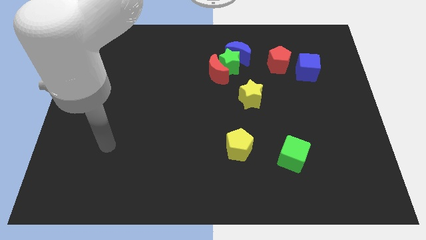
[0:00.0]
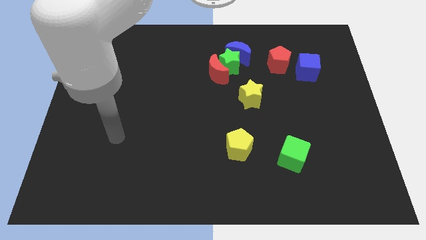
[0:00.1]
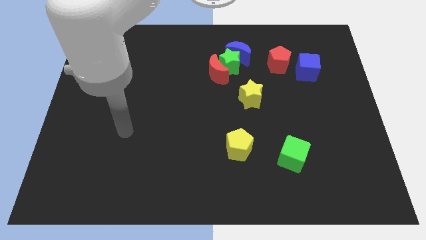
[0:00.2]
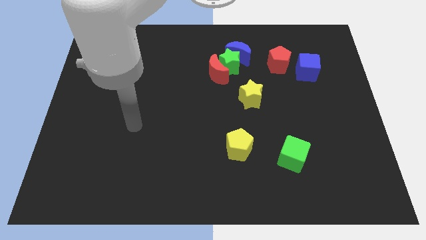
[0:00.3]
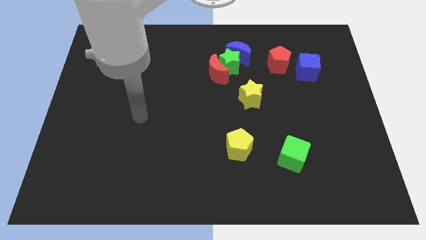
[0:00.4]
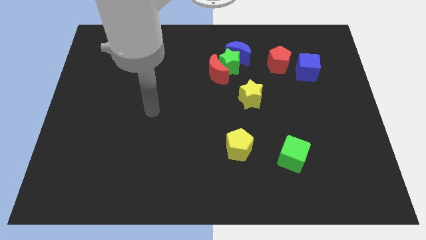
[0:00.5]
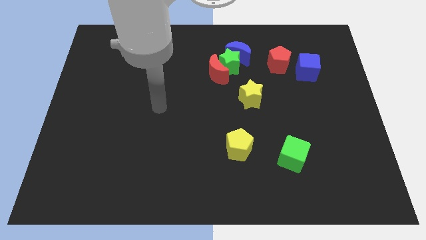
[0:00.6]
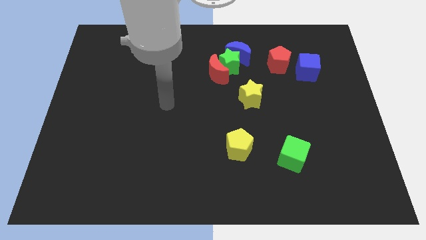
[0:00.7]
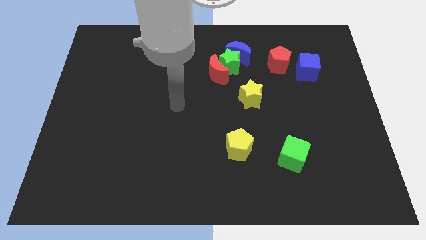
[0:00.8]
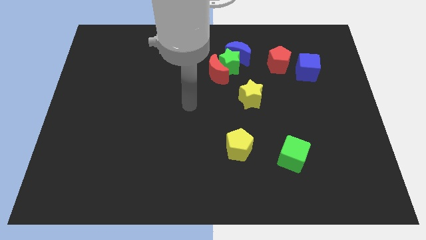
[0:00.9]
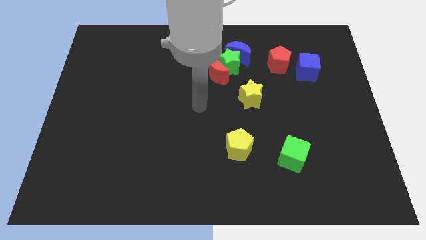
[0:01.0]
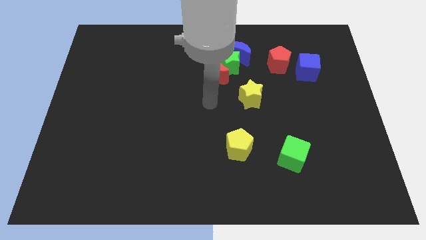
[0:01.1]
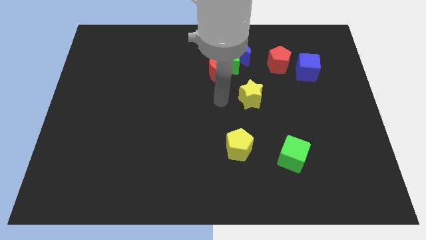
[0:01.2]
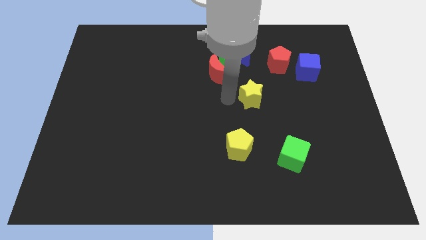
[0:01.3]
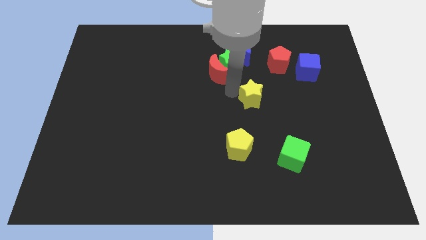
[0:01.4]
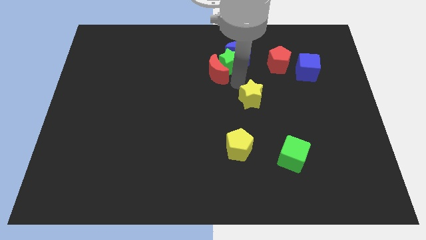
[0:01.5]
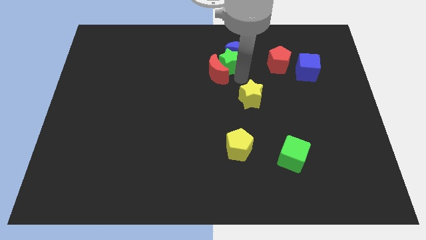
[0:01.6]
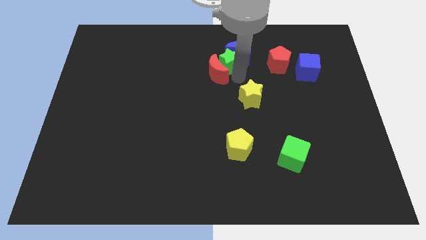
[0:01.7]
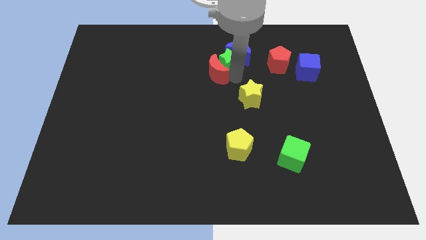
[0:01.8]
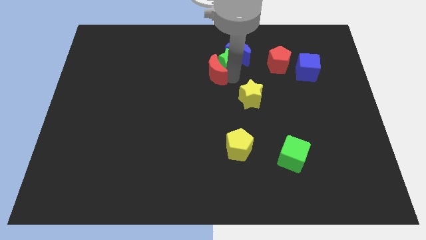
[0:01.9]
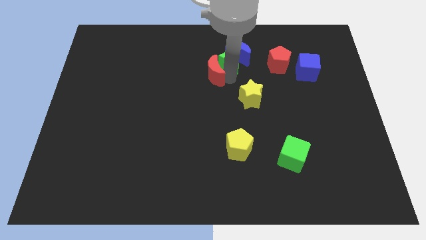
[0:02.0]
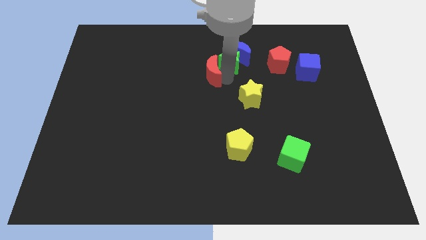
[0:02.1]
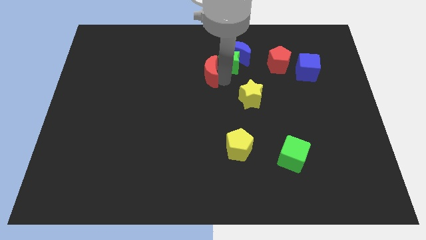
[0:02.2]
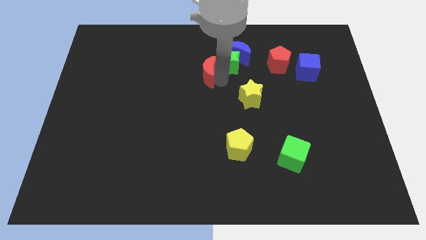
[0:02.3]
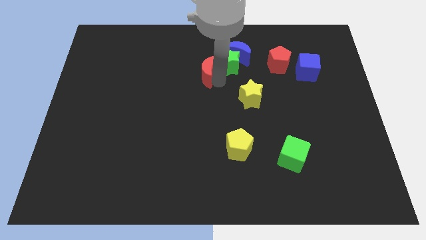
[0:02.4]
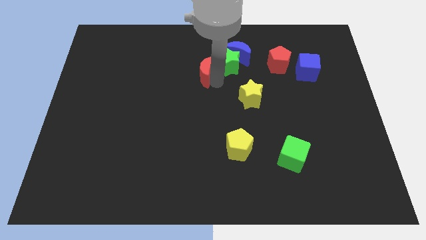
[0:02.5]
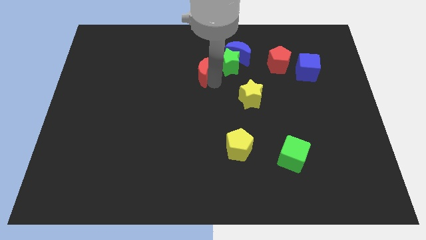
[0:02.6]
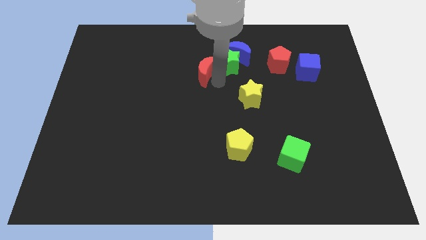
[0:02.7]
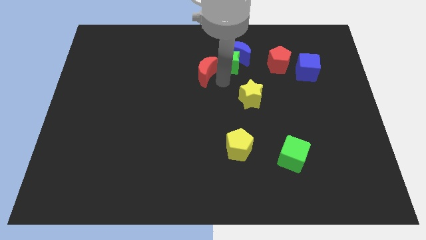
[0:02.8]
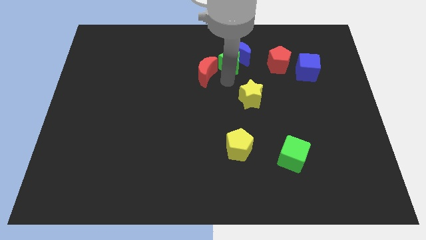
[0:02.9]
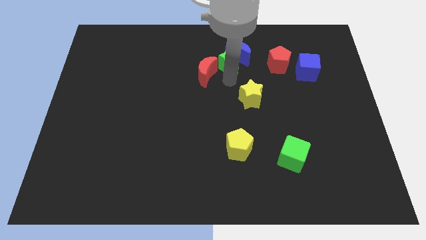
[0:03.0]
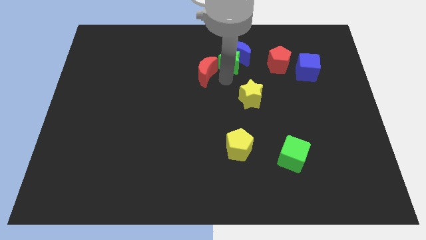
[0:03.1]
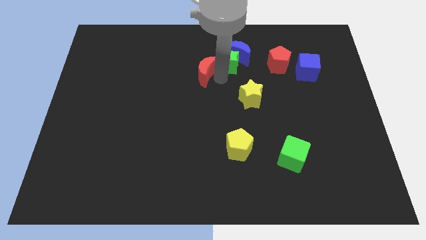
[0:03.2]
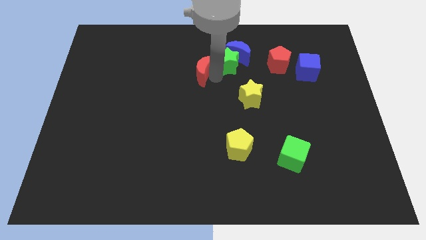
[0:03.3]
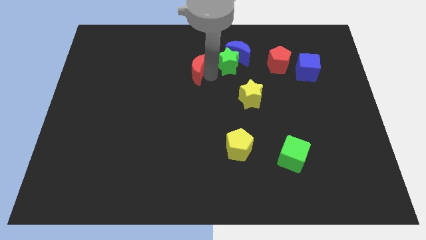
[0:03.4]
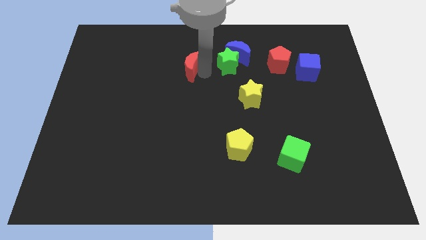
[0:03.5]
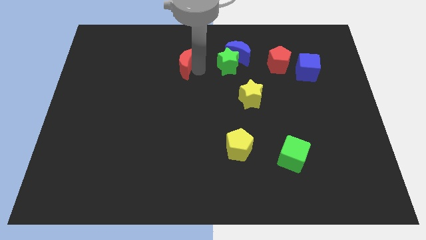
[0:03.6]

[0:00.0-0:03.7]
move the red moon a bit left

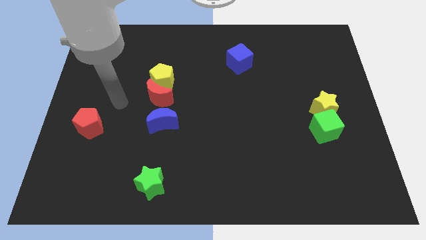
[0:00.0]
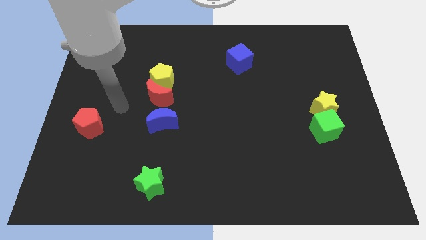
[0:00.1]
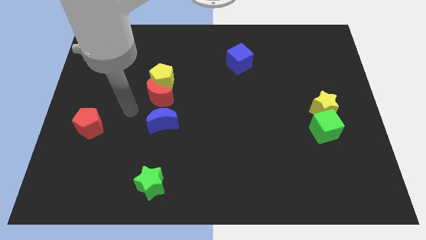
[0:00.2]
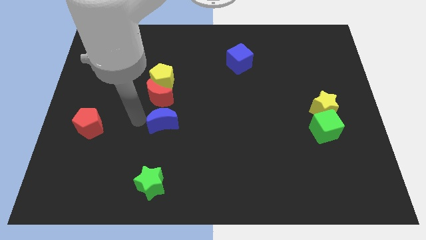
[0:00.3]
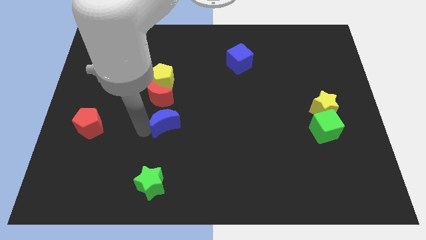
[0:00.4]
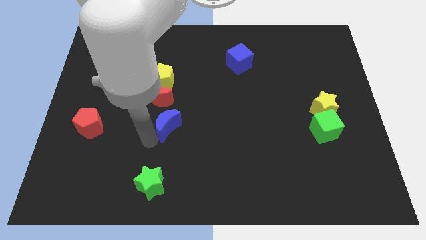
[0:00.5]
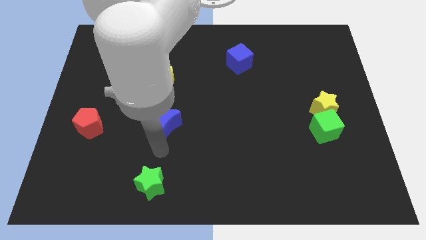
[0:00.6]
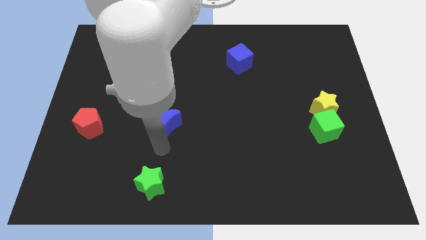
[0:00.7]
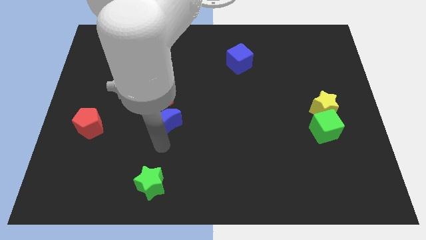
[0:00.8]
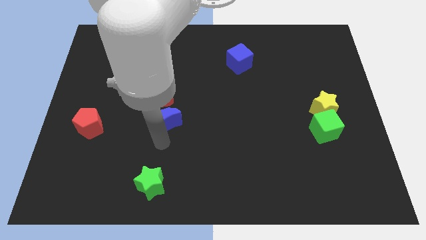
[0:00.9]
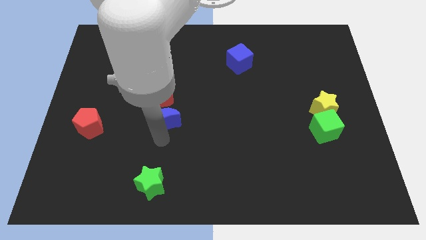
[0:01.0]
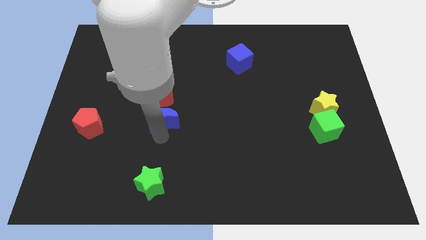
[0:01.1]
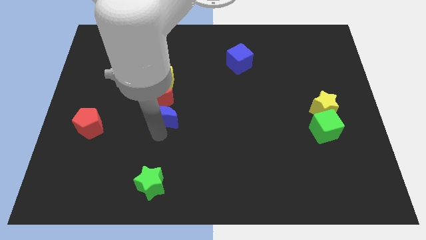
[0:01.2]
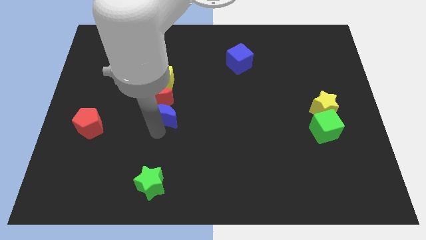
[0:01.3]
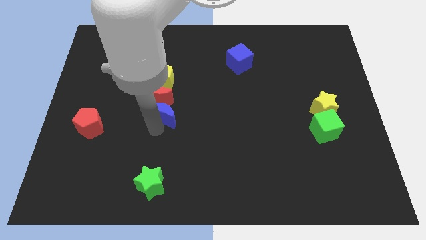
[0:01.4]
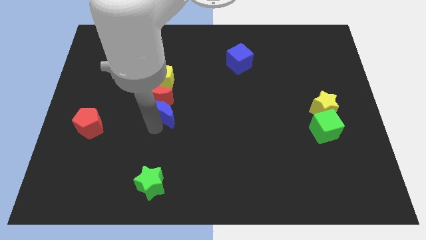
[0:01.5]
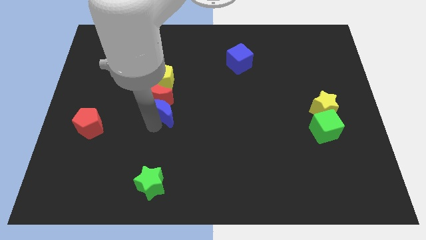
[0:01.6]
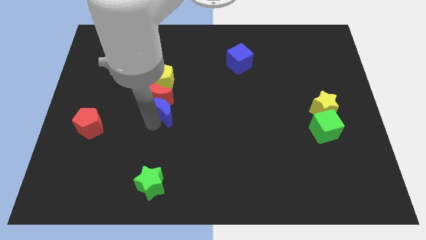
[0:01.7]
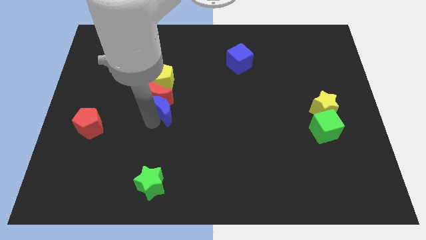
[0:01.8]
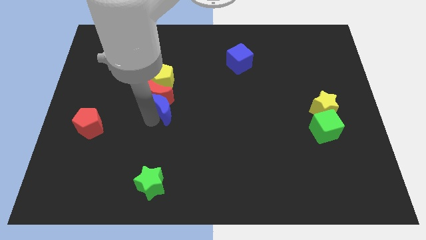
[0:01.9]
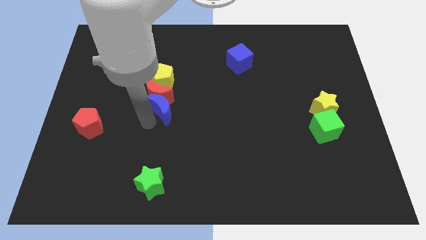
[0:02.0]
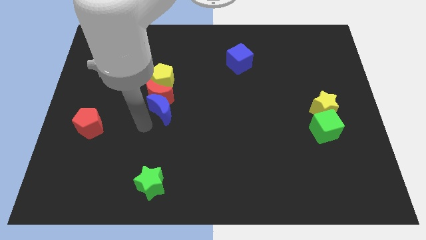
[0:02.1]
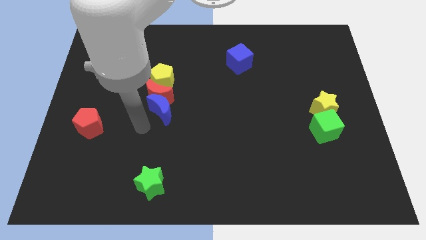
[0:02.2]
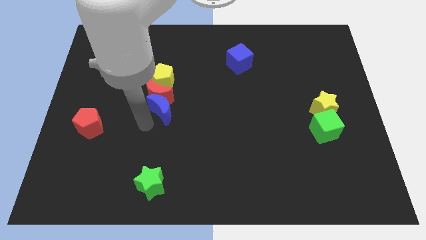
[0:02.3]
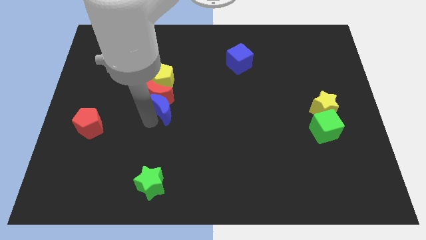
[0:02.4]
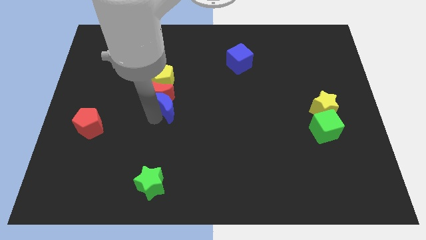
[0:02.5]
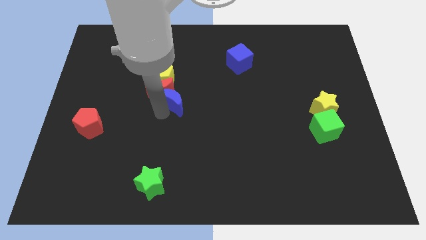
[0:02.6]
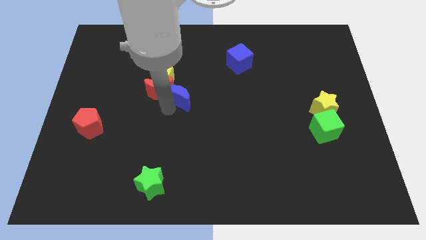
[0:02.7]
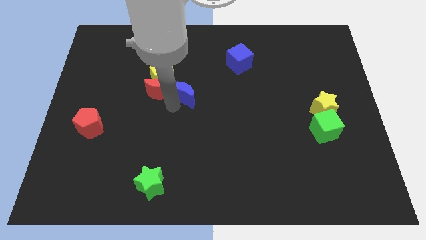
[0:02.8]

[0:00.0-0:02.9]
slightly slide the blue moon upwards

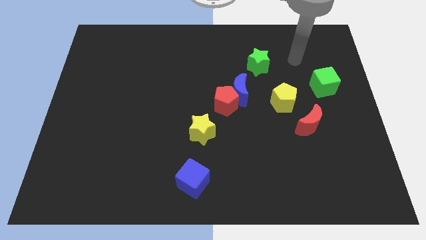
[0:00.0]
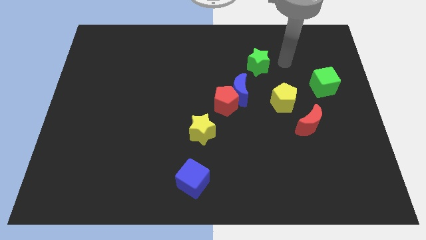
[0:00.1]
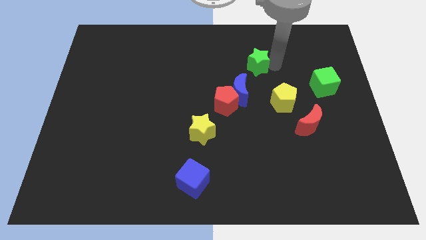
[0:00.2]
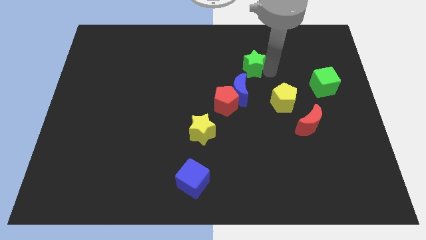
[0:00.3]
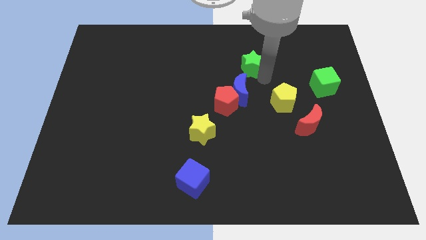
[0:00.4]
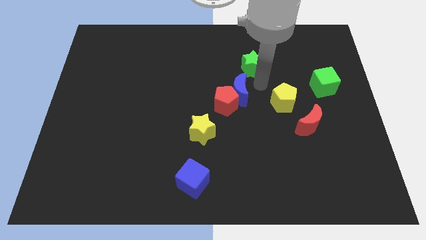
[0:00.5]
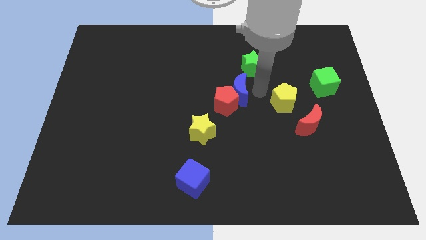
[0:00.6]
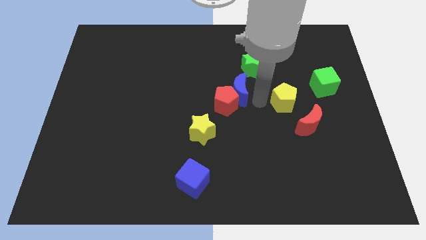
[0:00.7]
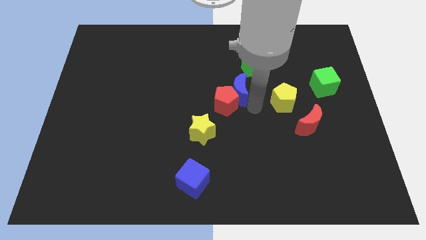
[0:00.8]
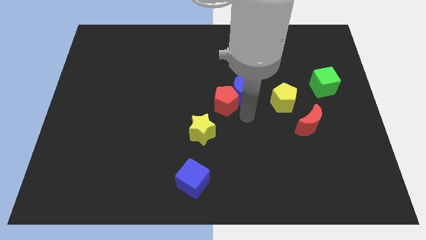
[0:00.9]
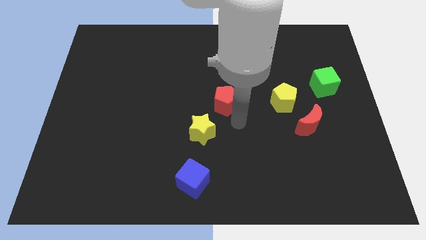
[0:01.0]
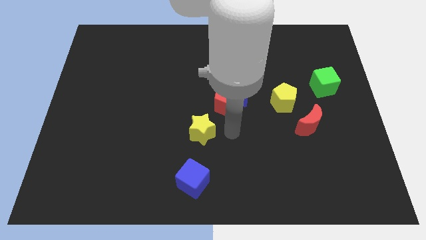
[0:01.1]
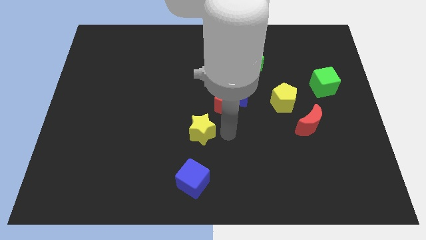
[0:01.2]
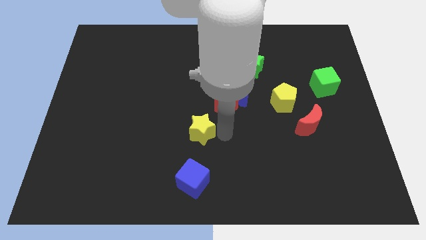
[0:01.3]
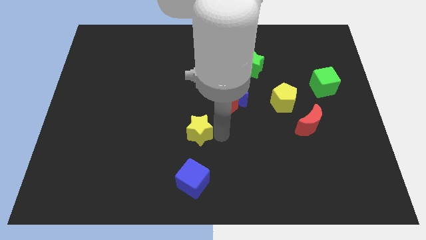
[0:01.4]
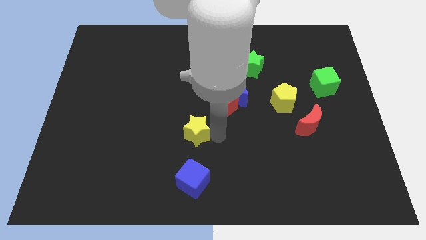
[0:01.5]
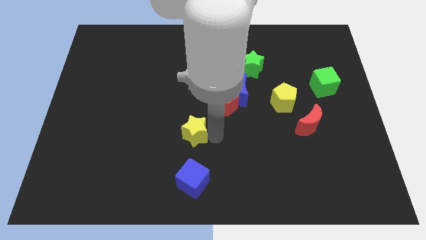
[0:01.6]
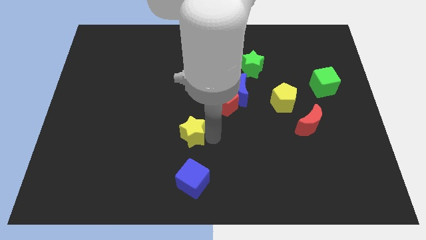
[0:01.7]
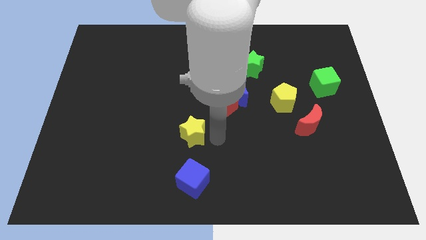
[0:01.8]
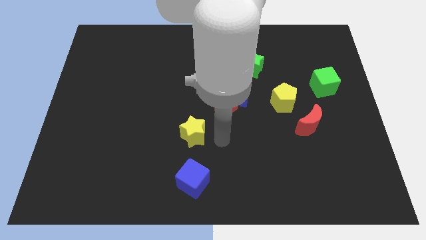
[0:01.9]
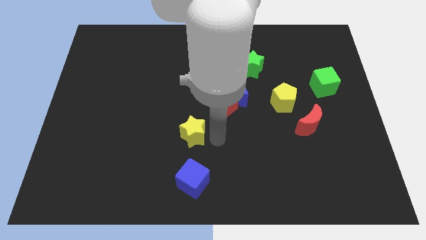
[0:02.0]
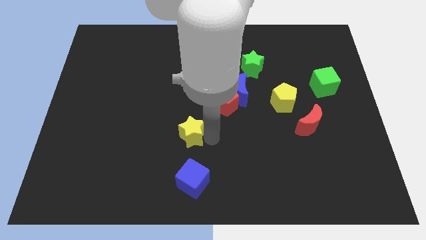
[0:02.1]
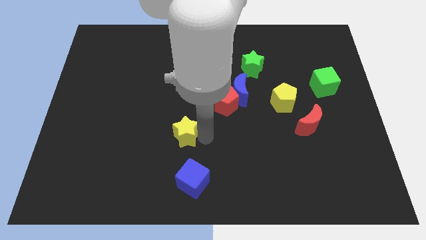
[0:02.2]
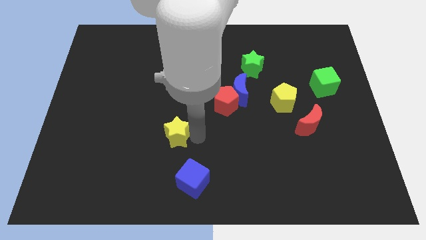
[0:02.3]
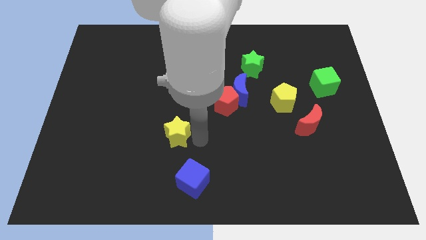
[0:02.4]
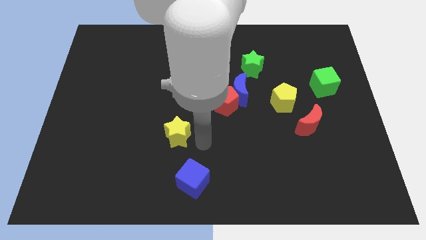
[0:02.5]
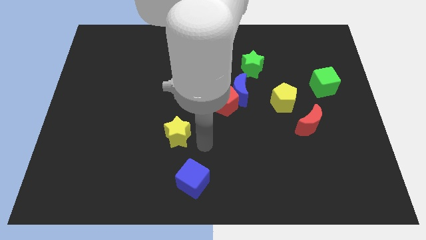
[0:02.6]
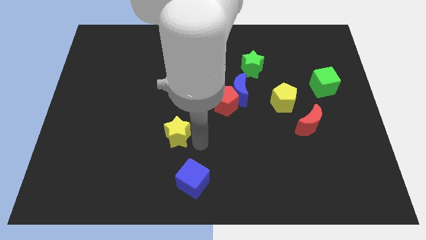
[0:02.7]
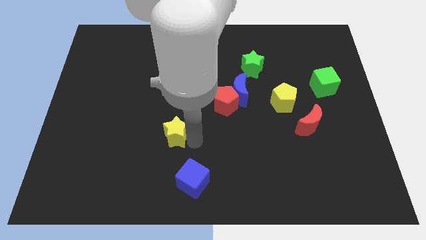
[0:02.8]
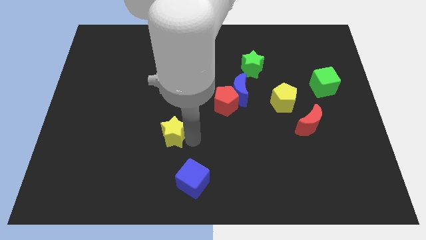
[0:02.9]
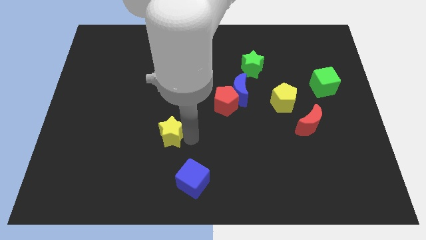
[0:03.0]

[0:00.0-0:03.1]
push the yellow star left a little bit
